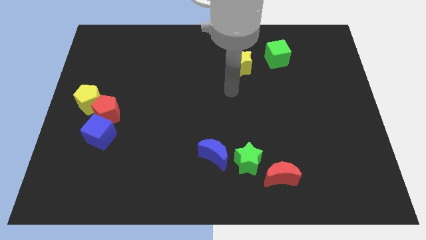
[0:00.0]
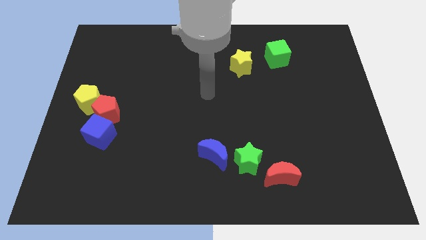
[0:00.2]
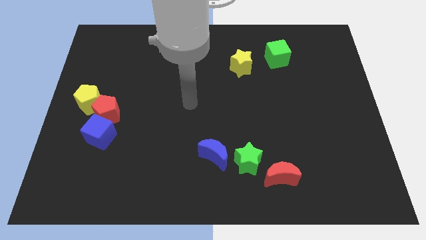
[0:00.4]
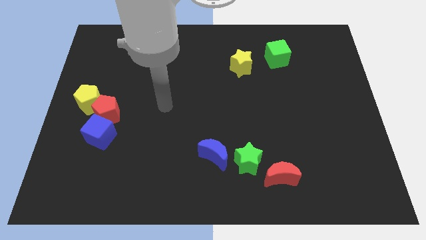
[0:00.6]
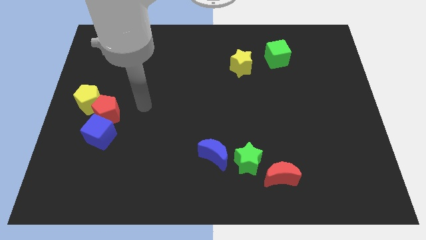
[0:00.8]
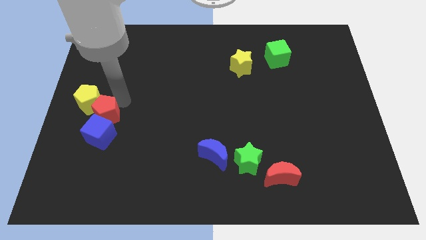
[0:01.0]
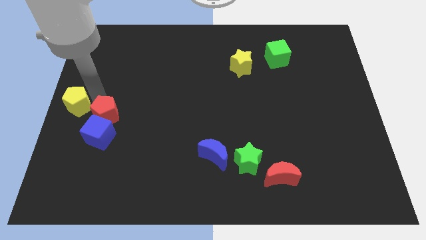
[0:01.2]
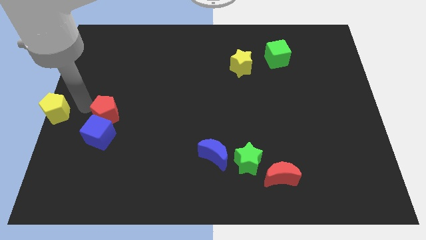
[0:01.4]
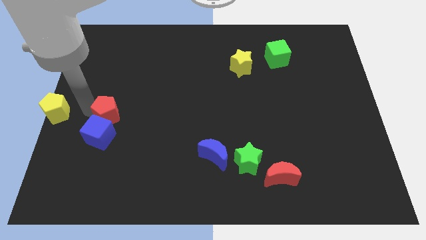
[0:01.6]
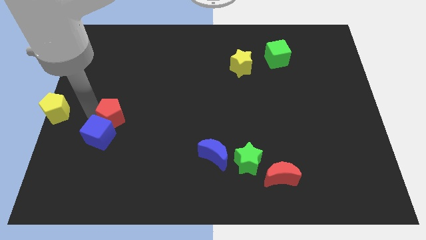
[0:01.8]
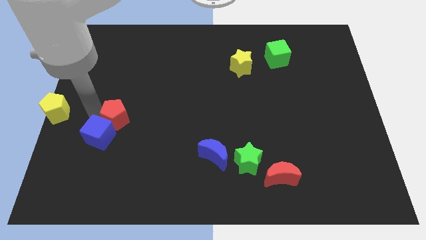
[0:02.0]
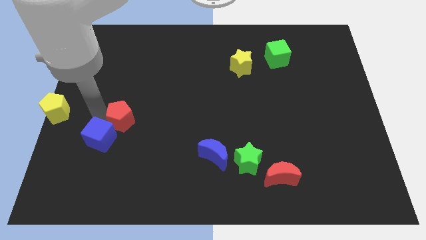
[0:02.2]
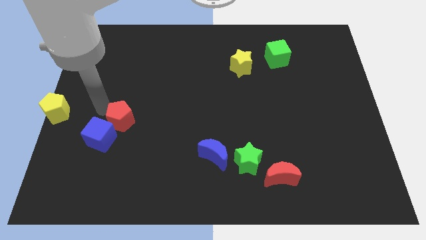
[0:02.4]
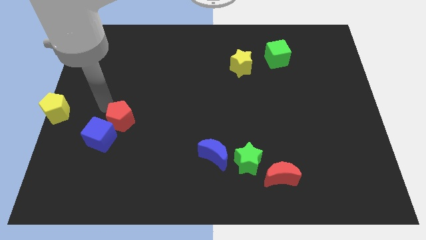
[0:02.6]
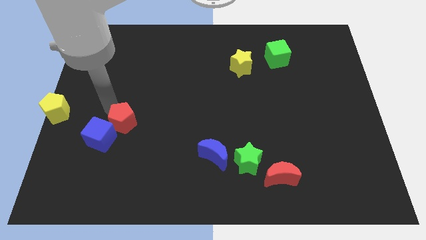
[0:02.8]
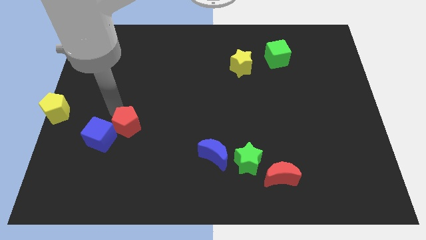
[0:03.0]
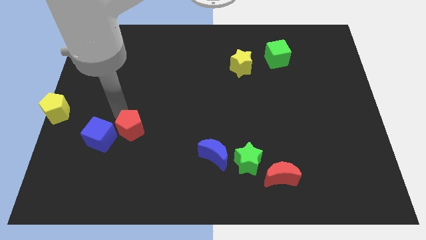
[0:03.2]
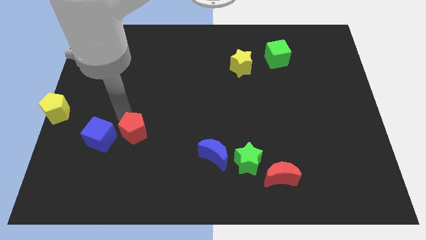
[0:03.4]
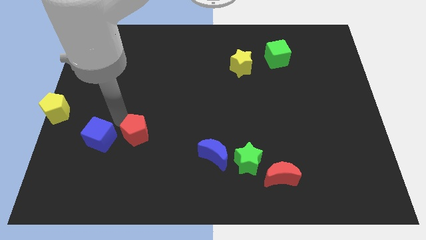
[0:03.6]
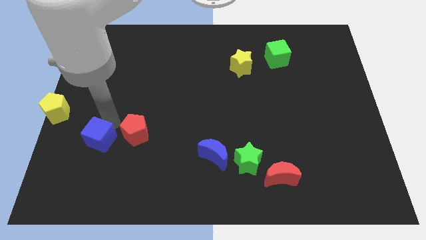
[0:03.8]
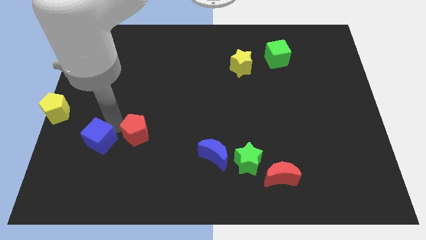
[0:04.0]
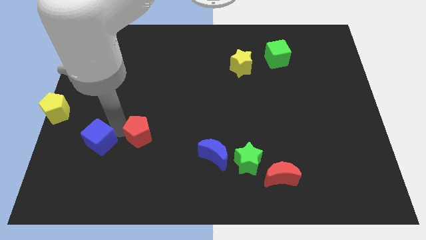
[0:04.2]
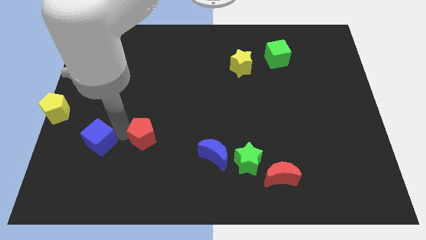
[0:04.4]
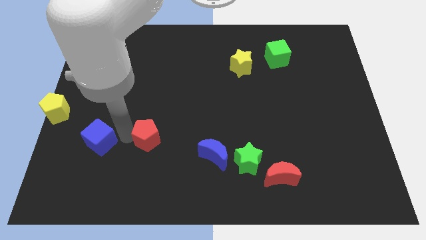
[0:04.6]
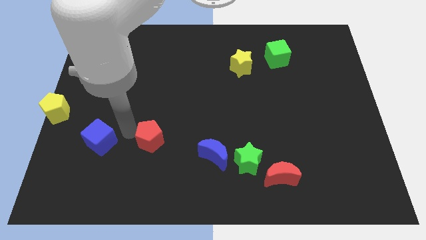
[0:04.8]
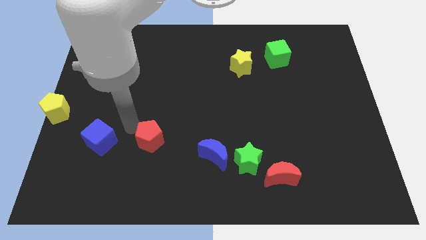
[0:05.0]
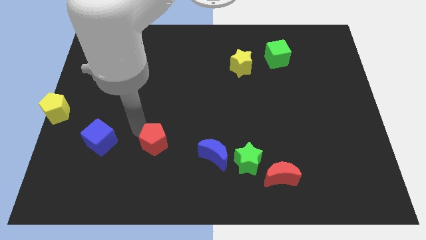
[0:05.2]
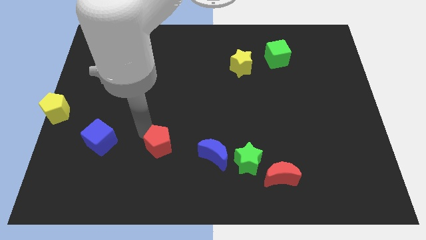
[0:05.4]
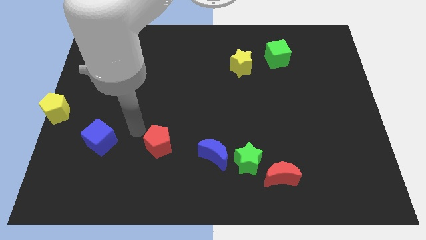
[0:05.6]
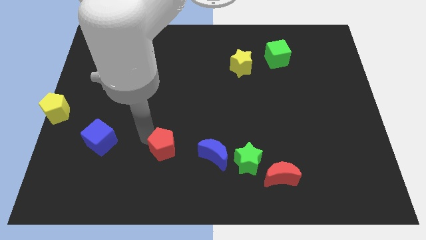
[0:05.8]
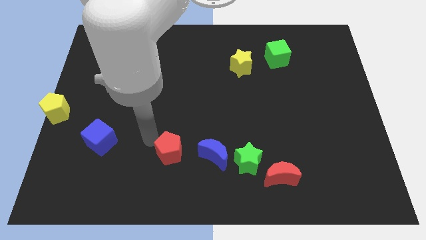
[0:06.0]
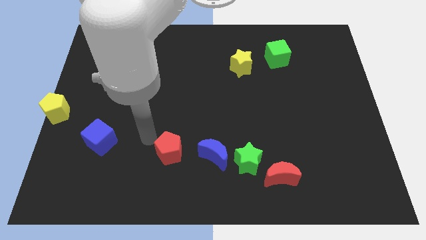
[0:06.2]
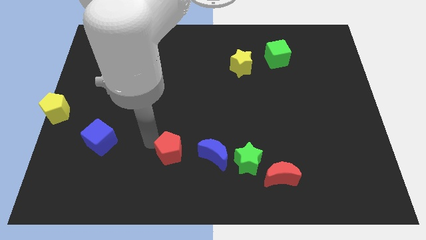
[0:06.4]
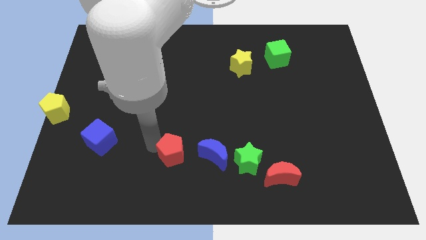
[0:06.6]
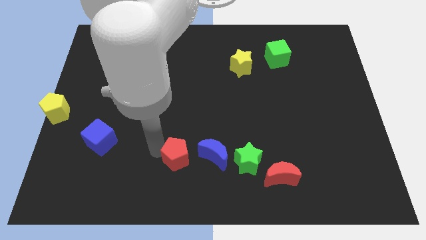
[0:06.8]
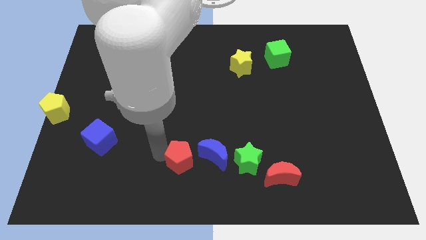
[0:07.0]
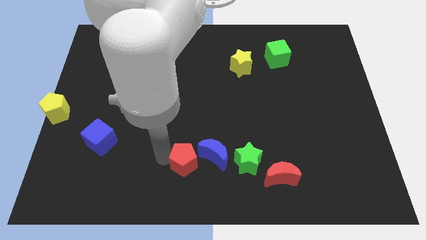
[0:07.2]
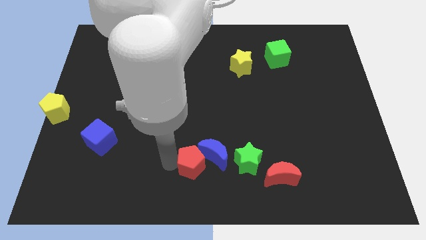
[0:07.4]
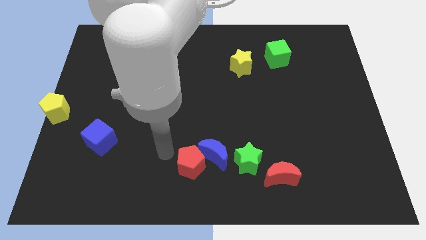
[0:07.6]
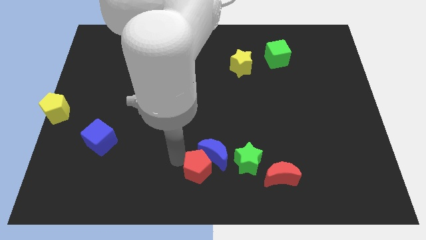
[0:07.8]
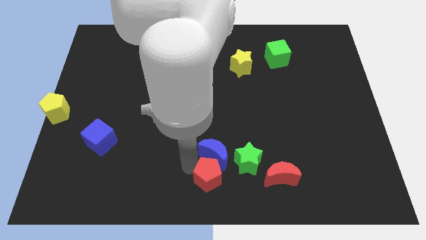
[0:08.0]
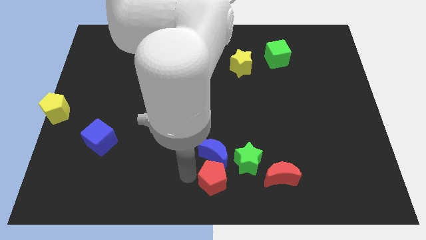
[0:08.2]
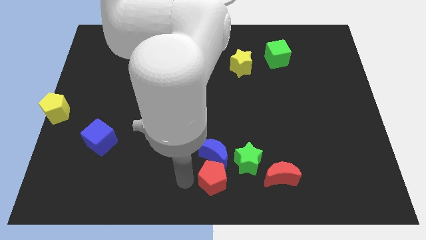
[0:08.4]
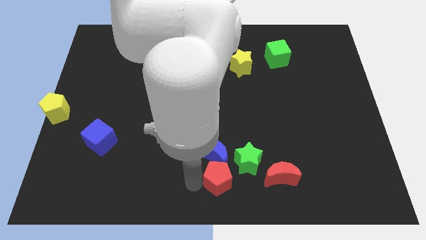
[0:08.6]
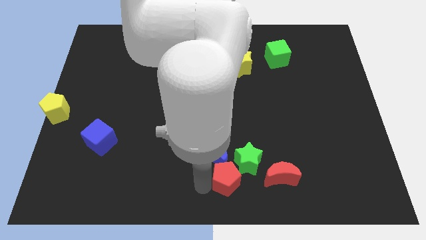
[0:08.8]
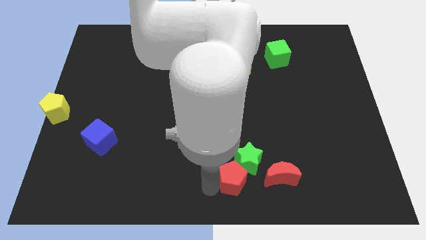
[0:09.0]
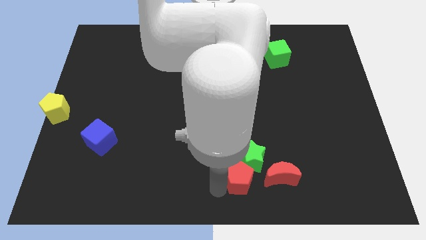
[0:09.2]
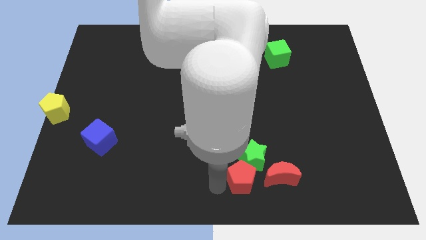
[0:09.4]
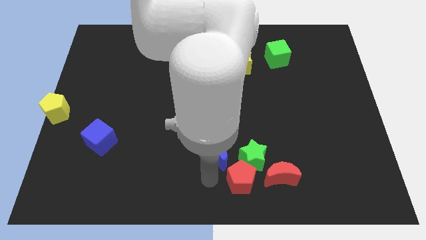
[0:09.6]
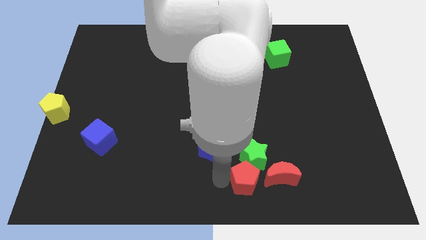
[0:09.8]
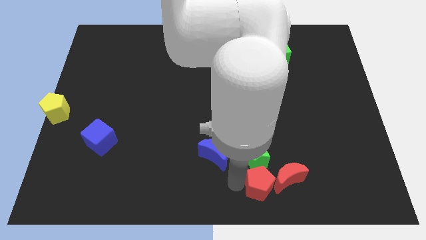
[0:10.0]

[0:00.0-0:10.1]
move the red pentagon close to the red moon

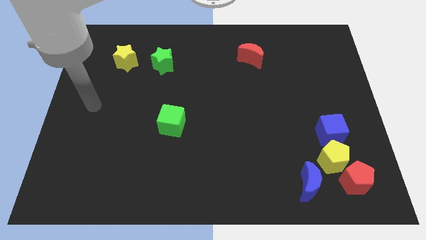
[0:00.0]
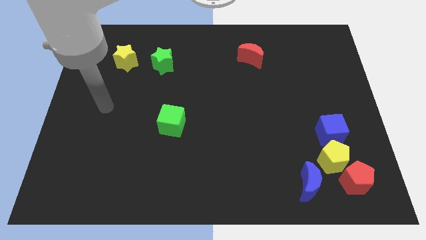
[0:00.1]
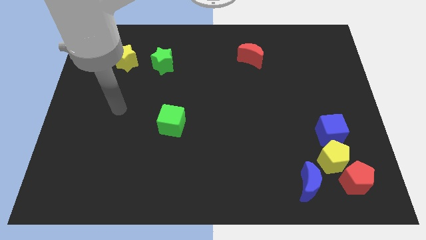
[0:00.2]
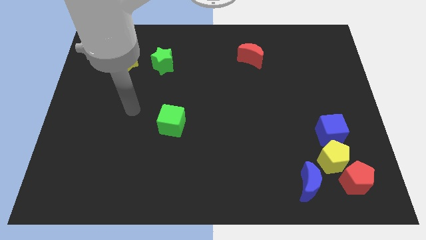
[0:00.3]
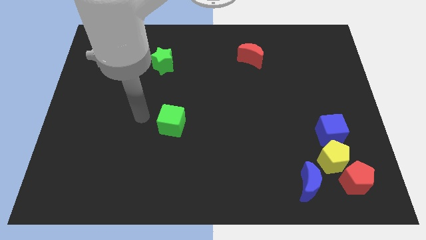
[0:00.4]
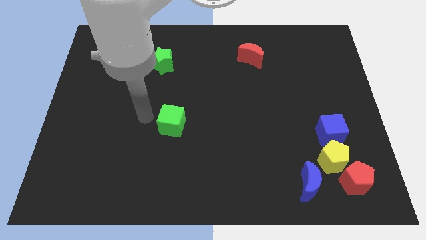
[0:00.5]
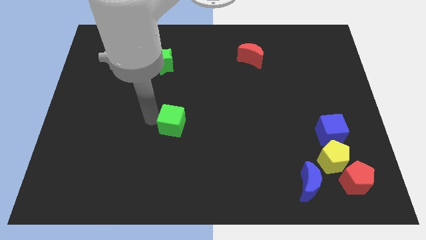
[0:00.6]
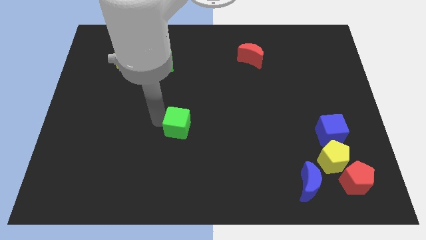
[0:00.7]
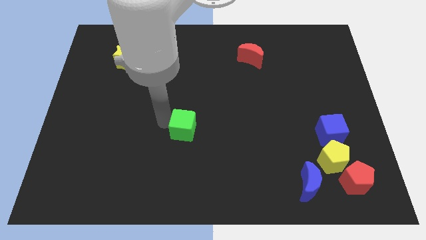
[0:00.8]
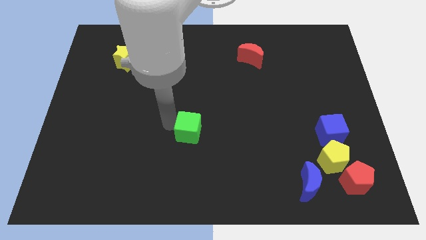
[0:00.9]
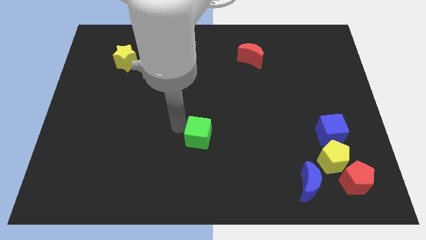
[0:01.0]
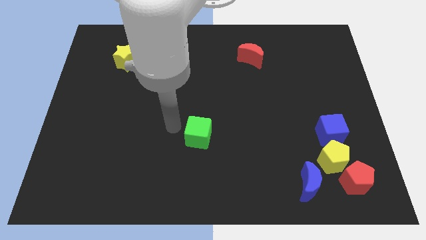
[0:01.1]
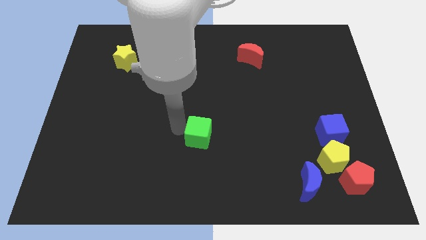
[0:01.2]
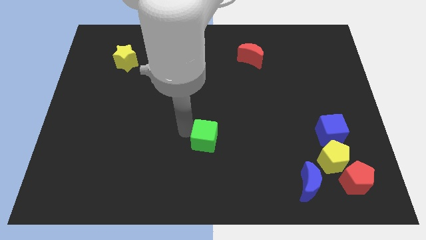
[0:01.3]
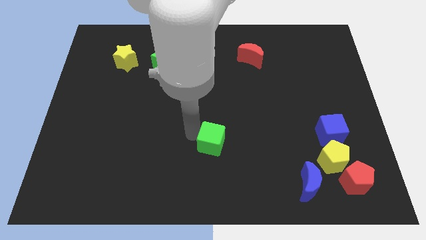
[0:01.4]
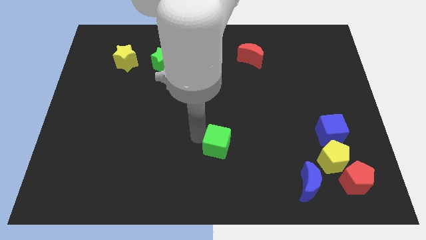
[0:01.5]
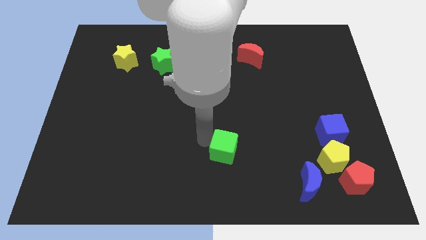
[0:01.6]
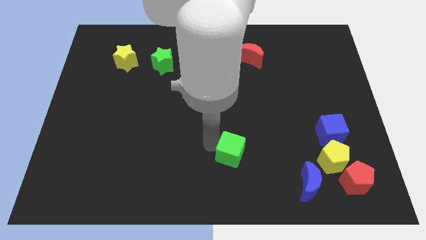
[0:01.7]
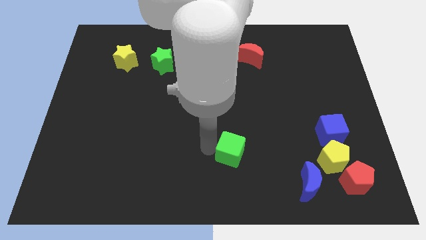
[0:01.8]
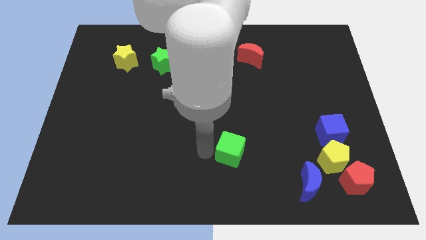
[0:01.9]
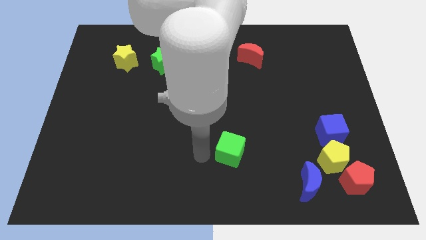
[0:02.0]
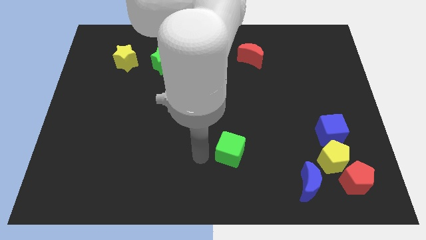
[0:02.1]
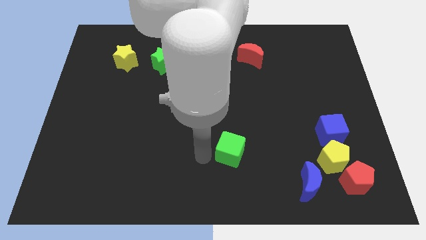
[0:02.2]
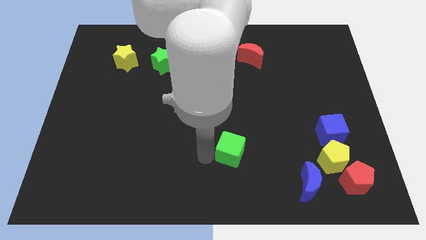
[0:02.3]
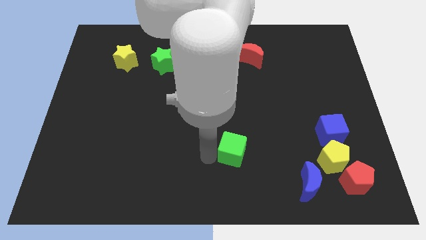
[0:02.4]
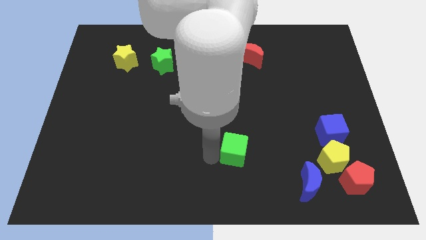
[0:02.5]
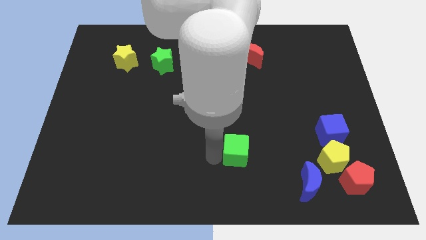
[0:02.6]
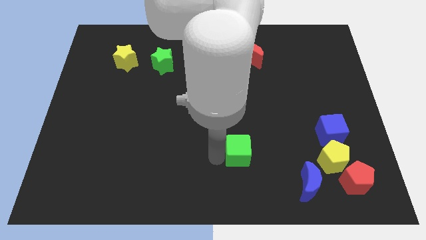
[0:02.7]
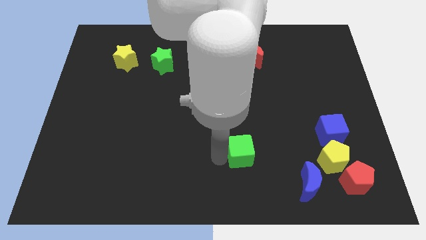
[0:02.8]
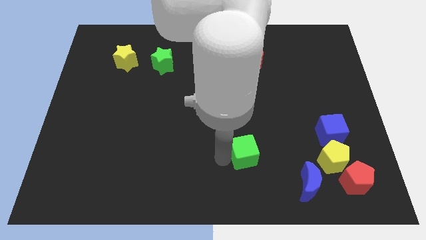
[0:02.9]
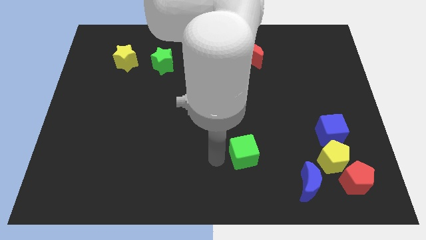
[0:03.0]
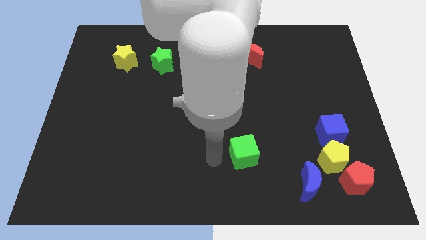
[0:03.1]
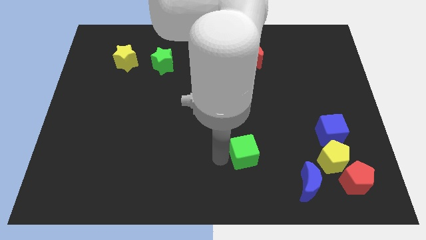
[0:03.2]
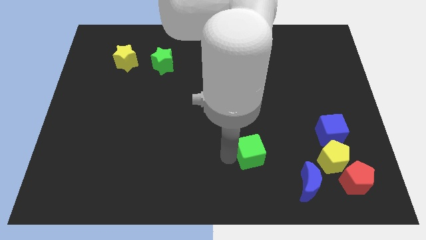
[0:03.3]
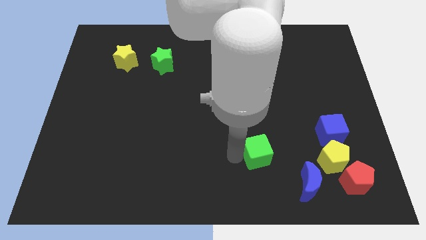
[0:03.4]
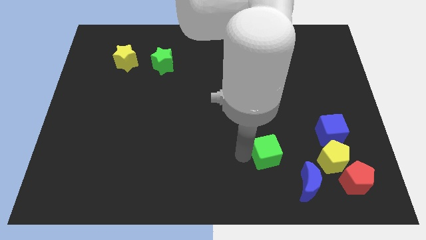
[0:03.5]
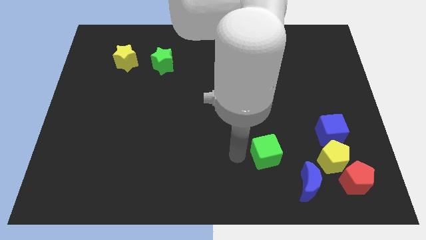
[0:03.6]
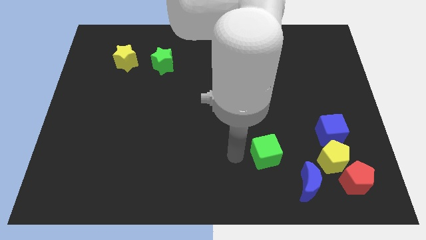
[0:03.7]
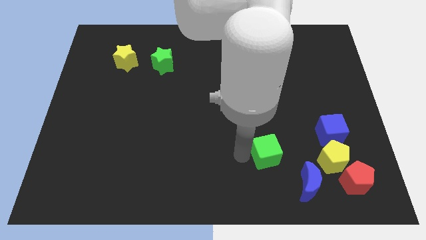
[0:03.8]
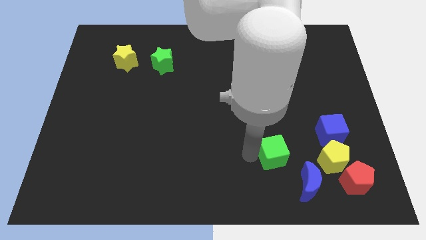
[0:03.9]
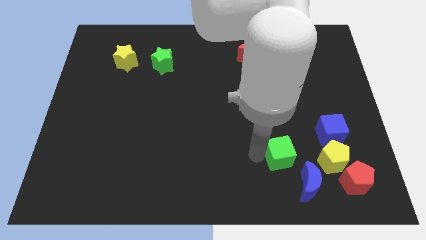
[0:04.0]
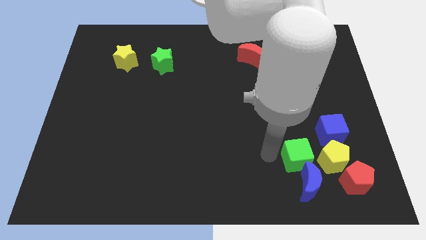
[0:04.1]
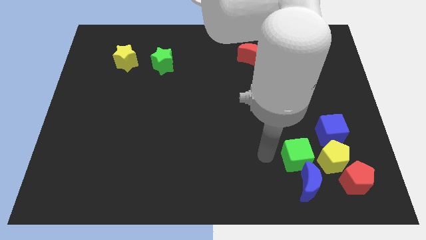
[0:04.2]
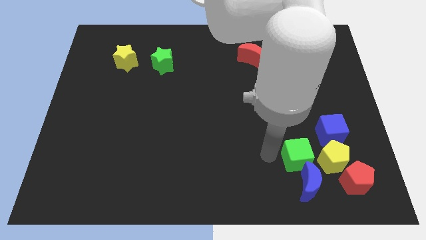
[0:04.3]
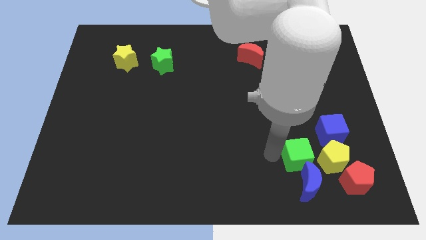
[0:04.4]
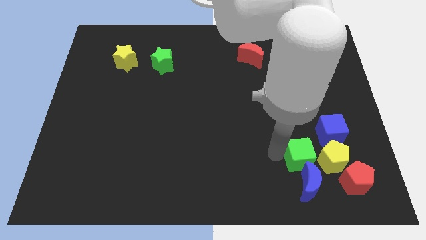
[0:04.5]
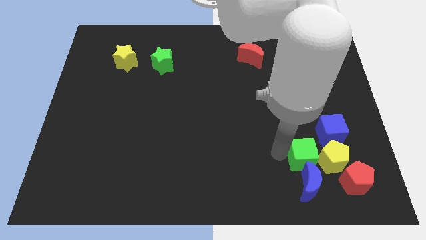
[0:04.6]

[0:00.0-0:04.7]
slide the green cube to the yellow pentagon
